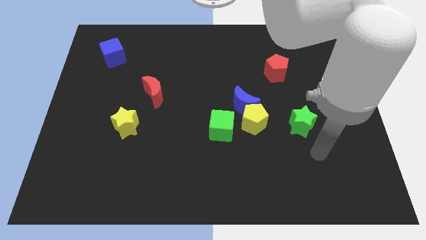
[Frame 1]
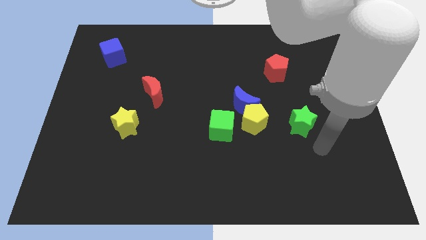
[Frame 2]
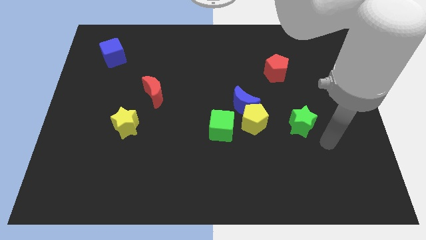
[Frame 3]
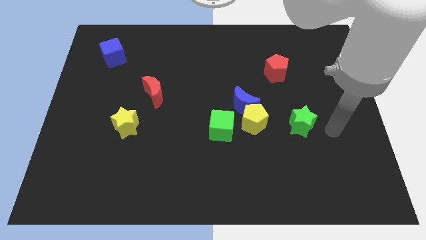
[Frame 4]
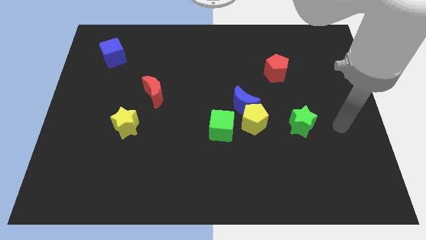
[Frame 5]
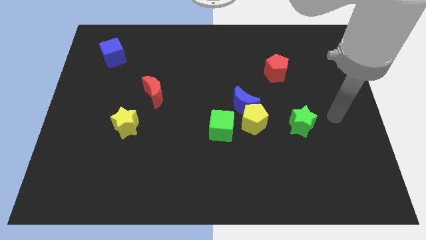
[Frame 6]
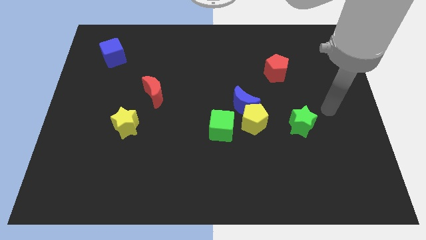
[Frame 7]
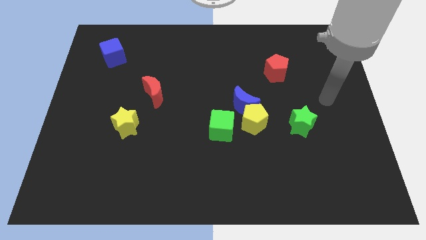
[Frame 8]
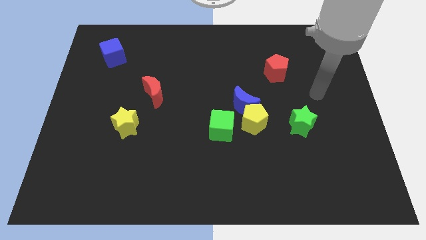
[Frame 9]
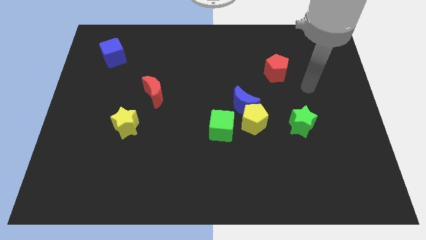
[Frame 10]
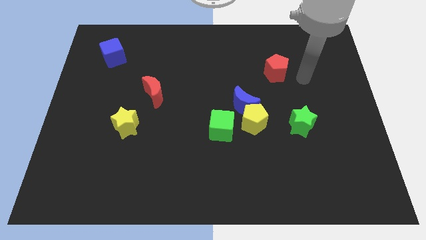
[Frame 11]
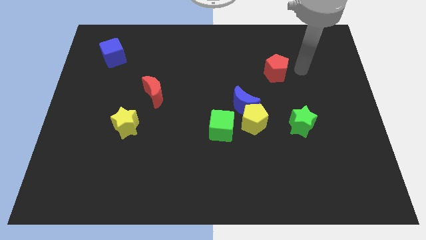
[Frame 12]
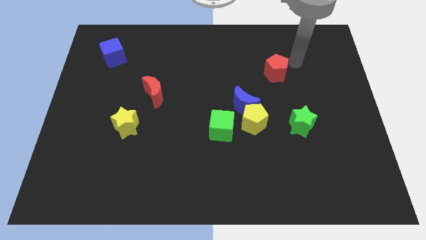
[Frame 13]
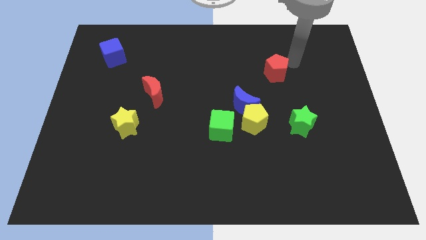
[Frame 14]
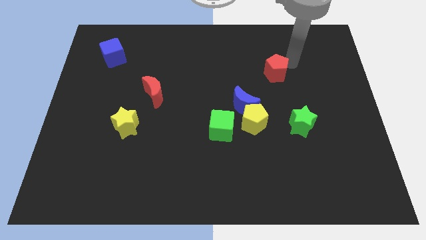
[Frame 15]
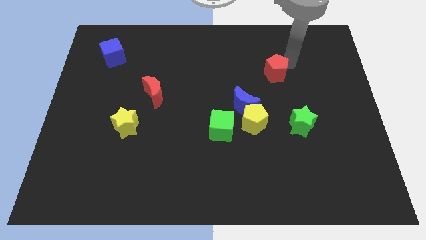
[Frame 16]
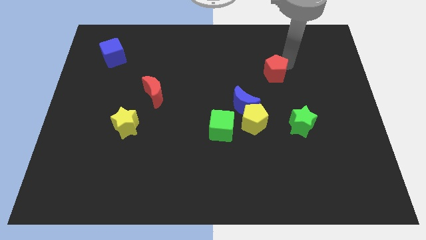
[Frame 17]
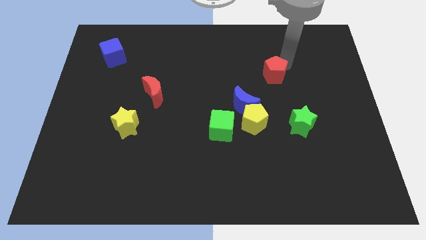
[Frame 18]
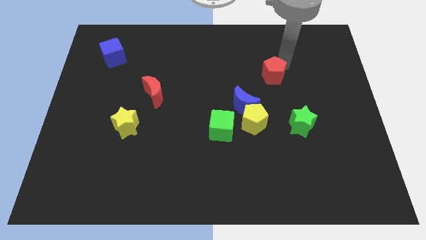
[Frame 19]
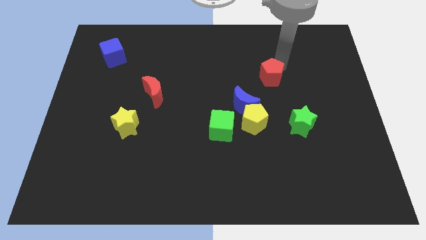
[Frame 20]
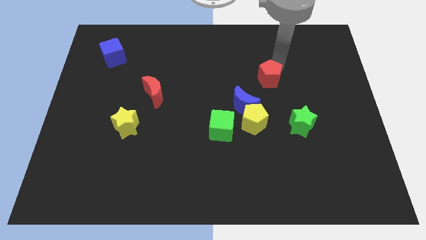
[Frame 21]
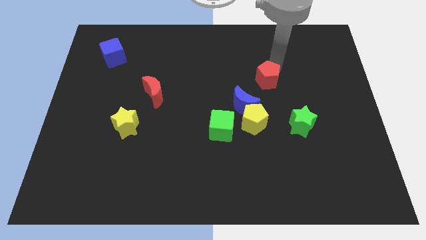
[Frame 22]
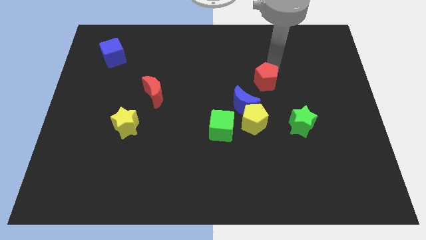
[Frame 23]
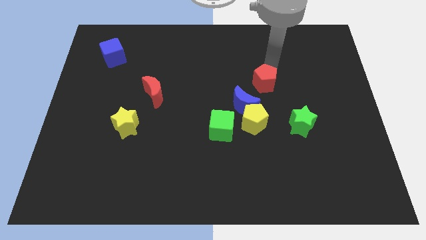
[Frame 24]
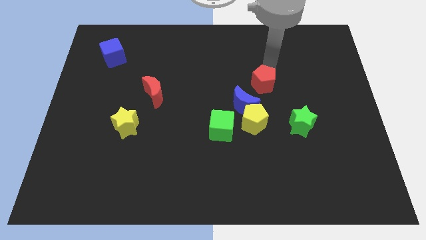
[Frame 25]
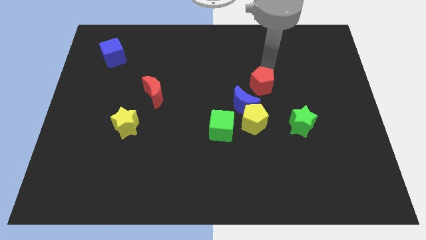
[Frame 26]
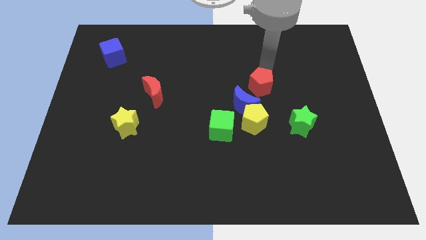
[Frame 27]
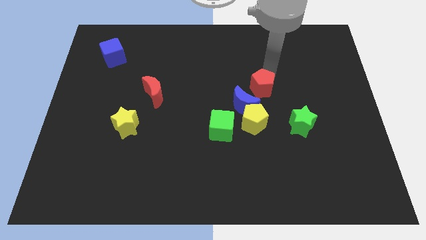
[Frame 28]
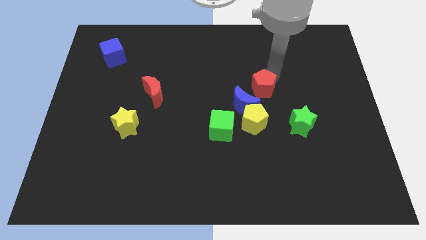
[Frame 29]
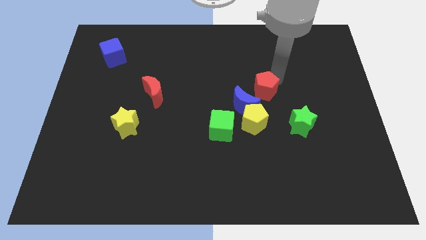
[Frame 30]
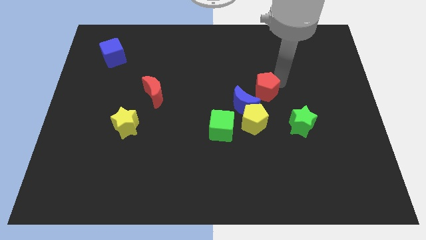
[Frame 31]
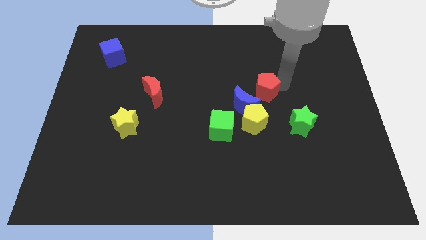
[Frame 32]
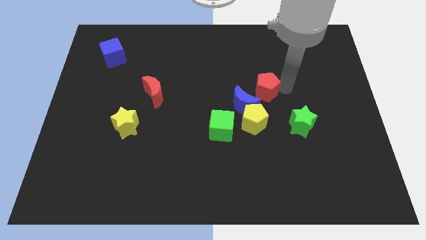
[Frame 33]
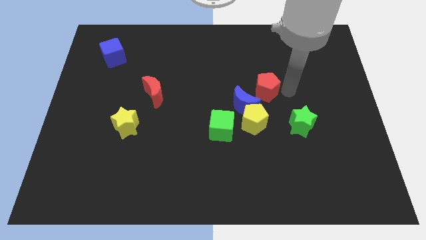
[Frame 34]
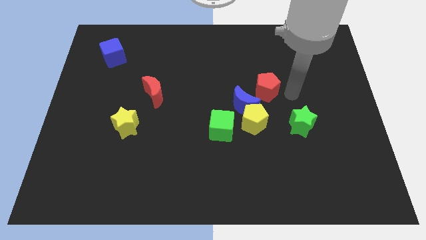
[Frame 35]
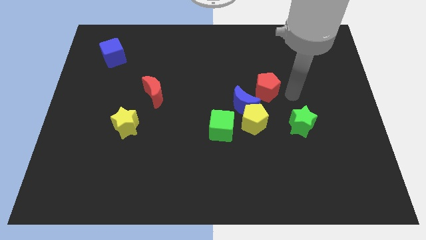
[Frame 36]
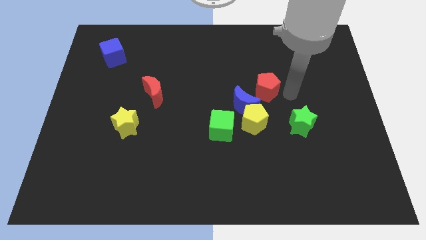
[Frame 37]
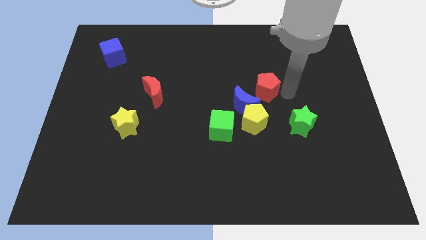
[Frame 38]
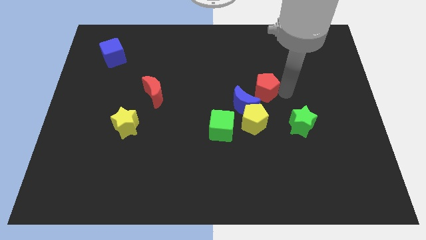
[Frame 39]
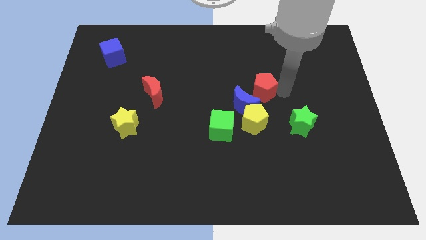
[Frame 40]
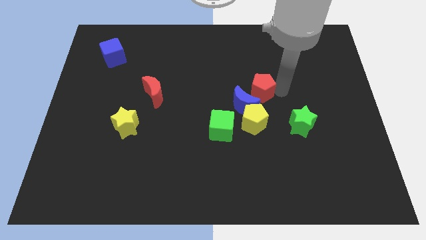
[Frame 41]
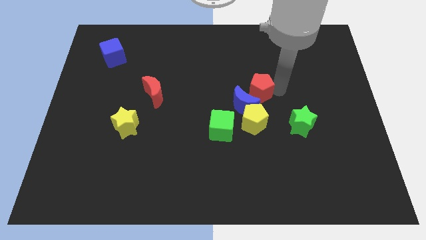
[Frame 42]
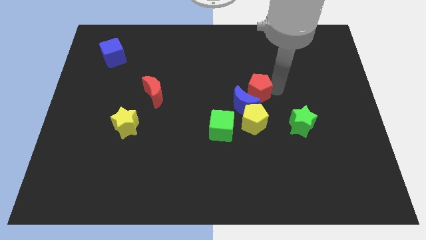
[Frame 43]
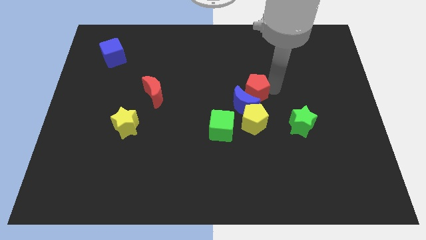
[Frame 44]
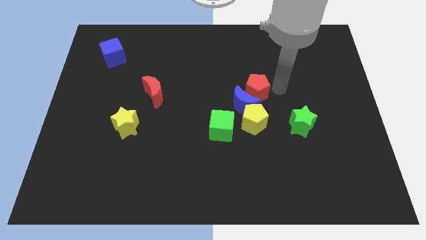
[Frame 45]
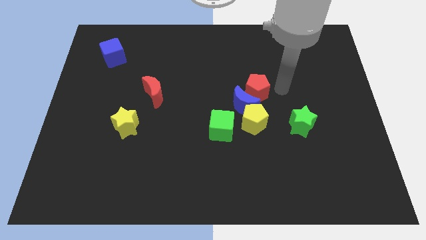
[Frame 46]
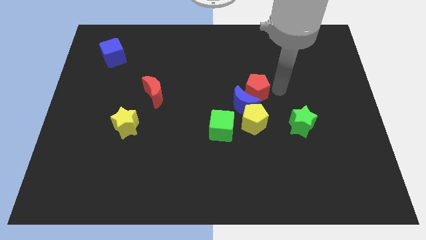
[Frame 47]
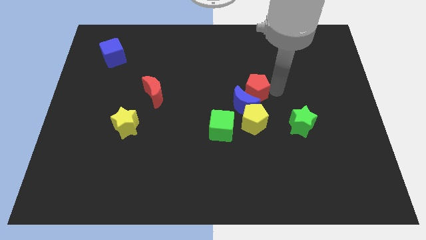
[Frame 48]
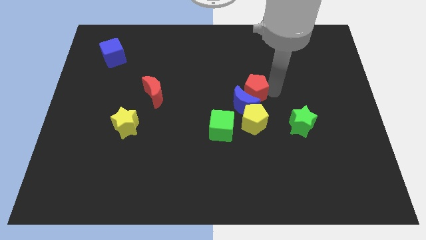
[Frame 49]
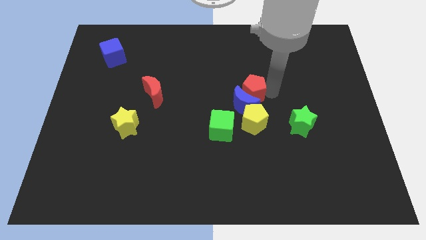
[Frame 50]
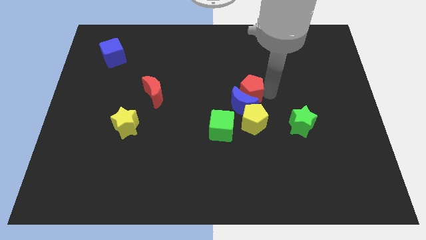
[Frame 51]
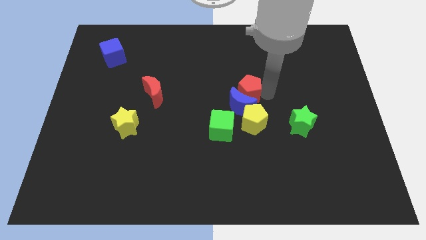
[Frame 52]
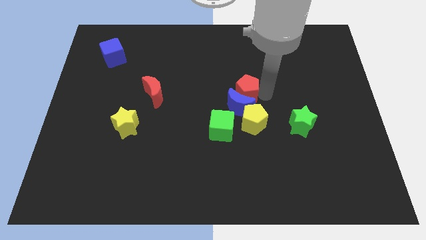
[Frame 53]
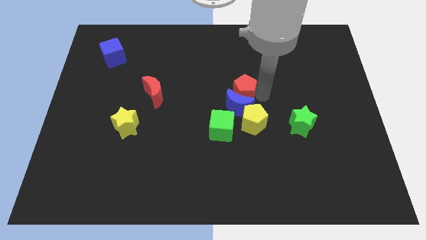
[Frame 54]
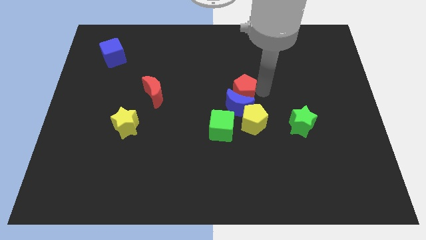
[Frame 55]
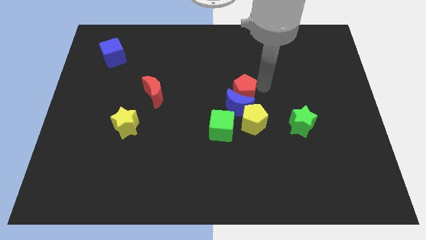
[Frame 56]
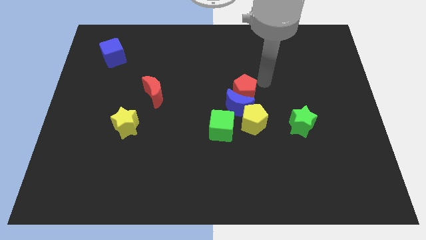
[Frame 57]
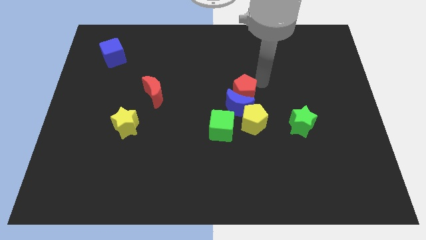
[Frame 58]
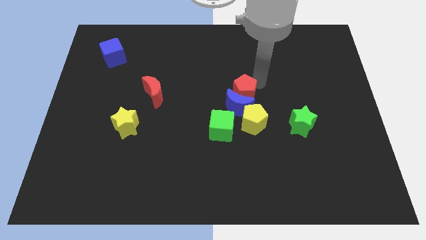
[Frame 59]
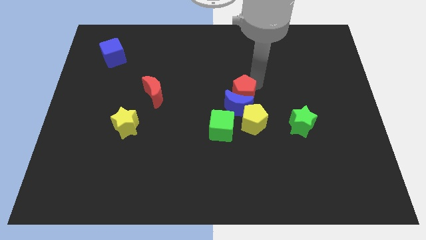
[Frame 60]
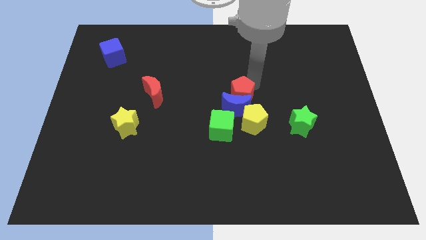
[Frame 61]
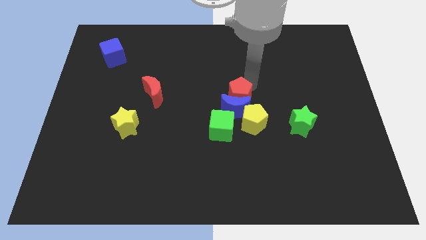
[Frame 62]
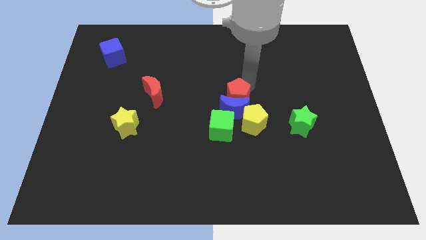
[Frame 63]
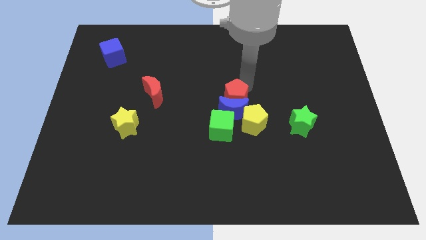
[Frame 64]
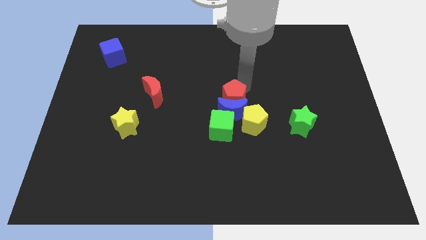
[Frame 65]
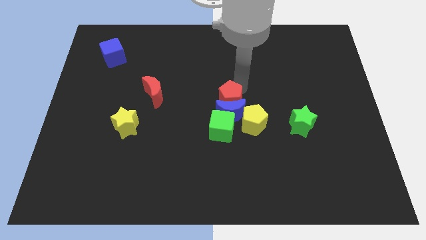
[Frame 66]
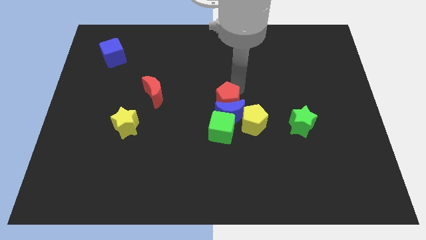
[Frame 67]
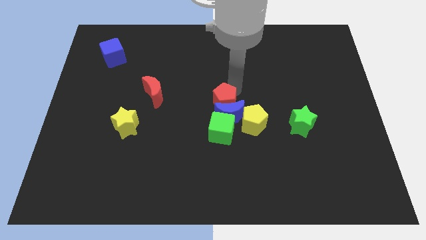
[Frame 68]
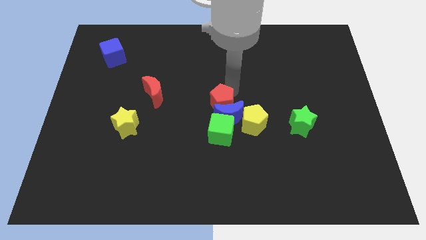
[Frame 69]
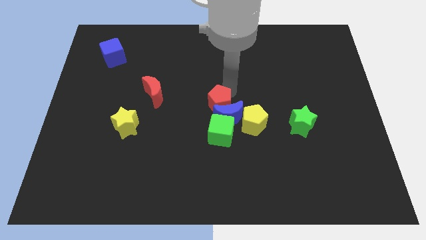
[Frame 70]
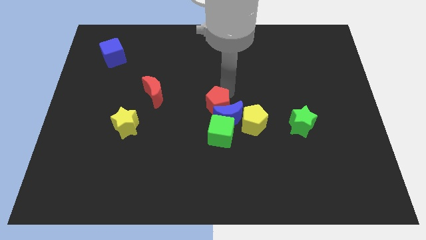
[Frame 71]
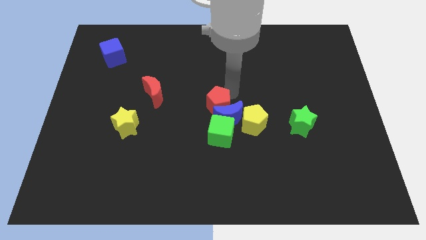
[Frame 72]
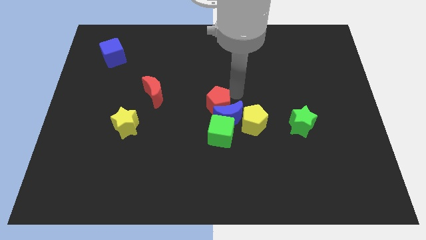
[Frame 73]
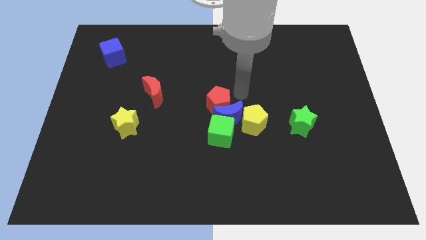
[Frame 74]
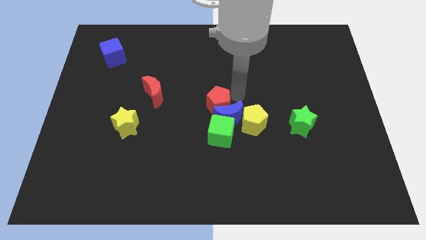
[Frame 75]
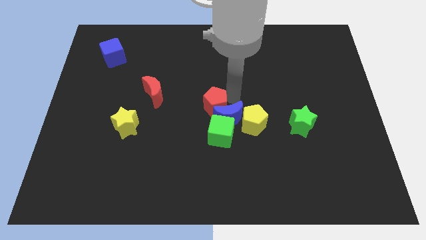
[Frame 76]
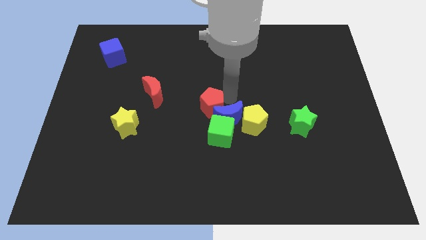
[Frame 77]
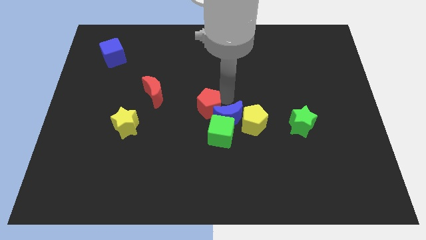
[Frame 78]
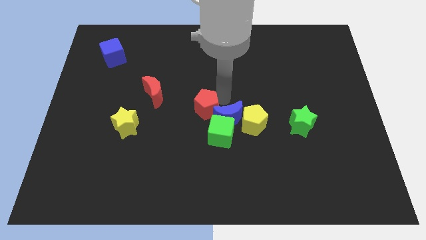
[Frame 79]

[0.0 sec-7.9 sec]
push the red pentagon down and then to the left

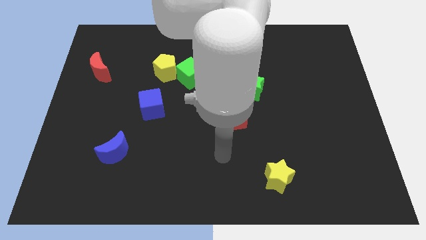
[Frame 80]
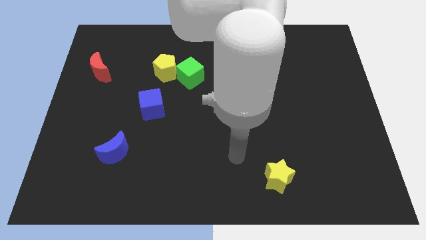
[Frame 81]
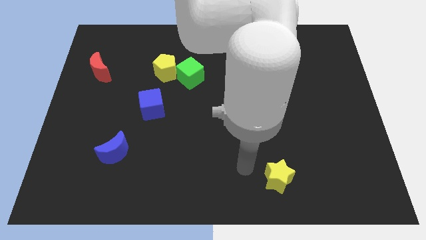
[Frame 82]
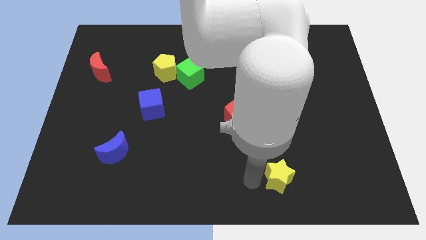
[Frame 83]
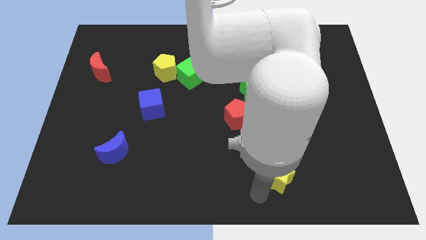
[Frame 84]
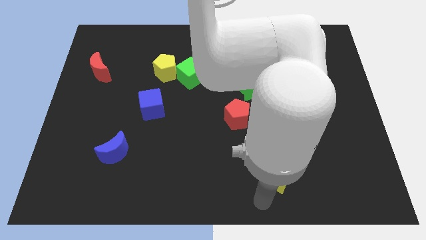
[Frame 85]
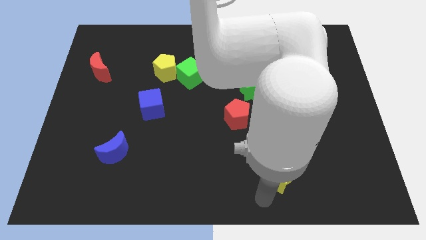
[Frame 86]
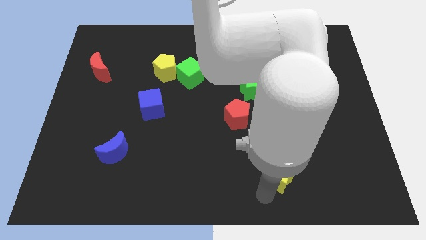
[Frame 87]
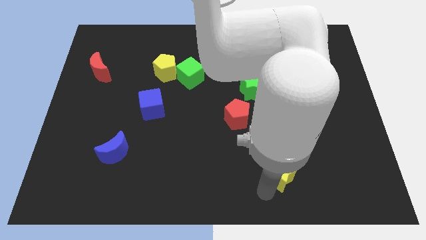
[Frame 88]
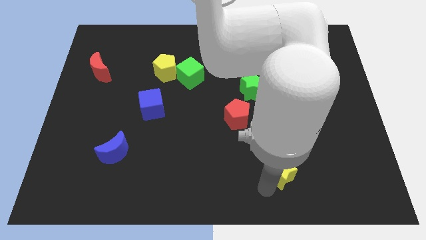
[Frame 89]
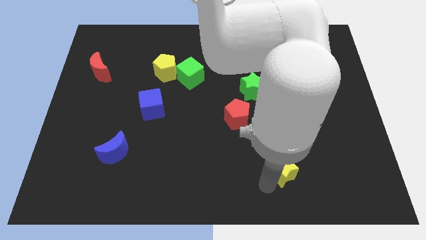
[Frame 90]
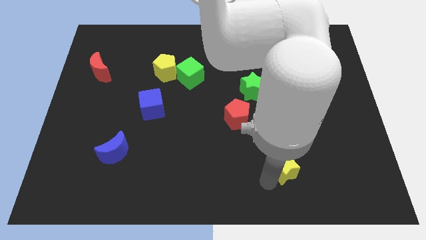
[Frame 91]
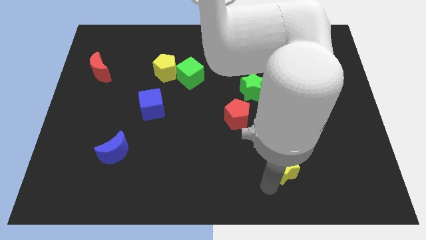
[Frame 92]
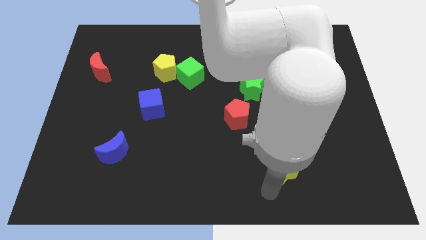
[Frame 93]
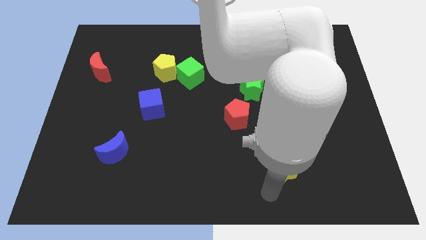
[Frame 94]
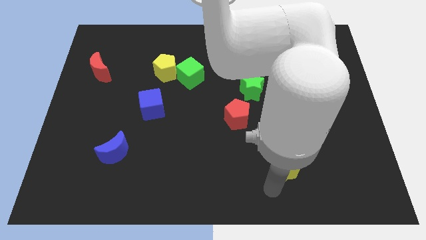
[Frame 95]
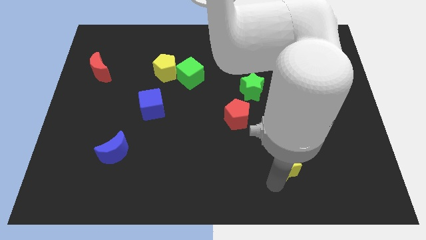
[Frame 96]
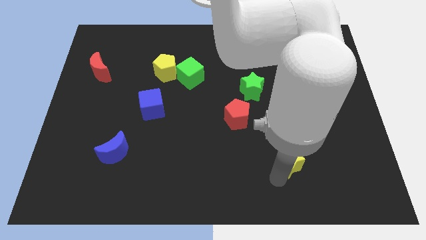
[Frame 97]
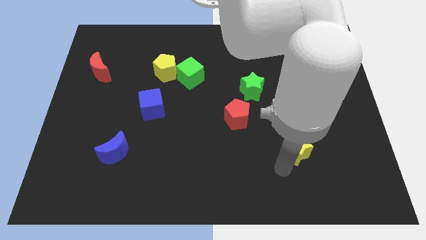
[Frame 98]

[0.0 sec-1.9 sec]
slightly push the yellow star upwards and right diagonally
